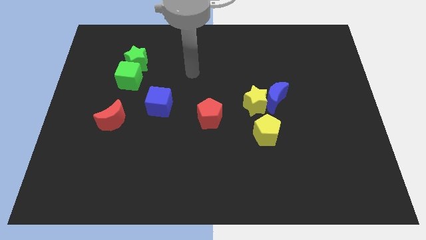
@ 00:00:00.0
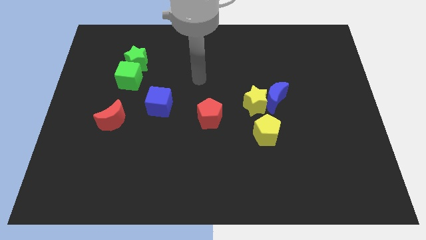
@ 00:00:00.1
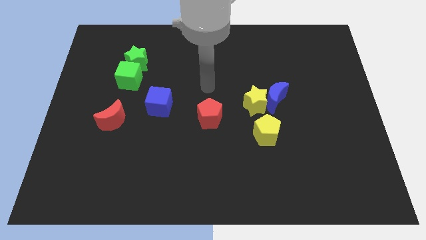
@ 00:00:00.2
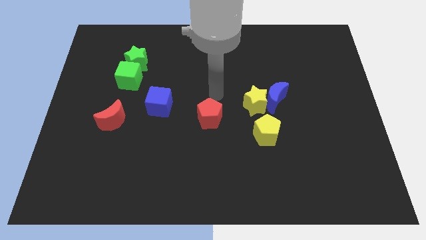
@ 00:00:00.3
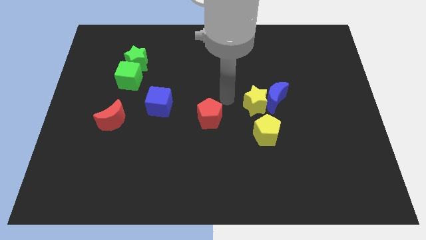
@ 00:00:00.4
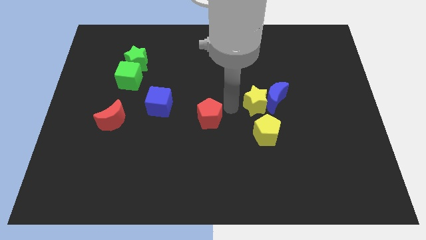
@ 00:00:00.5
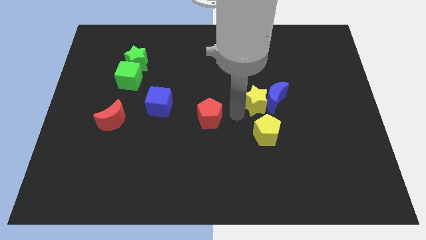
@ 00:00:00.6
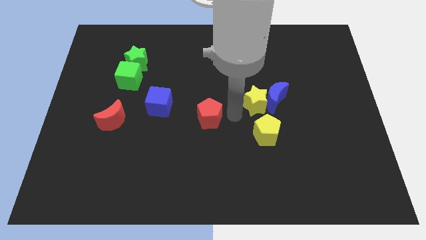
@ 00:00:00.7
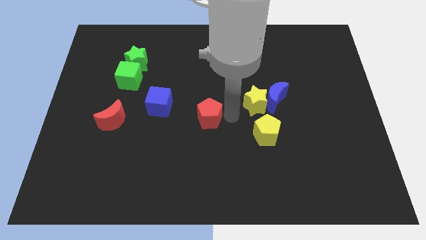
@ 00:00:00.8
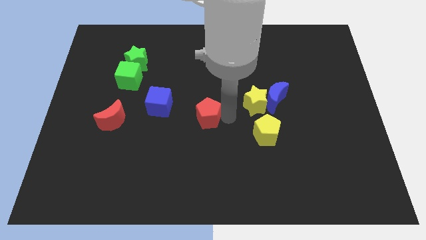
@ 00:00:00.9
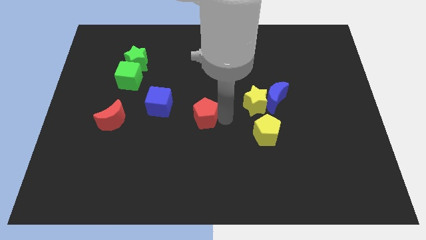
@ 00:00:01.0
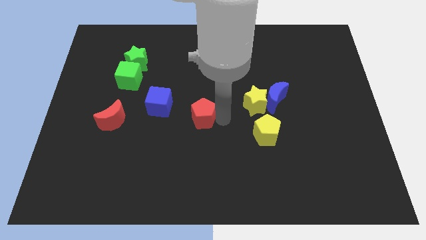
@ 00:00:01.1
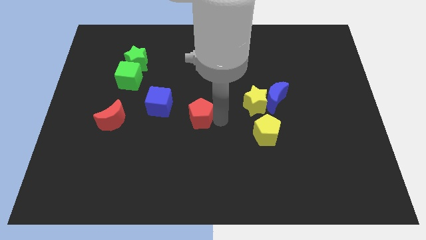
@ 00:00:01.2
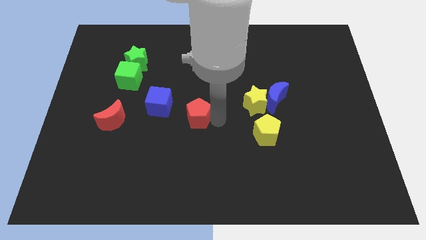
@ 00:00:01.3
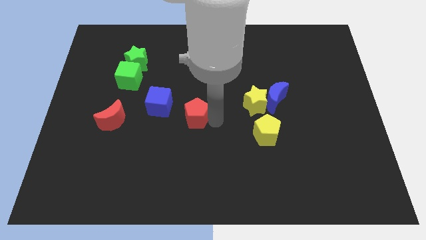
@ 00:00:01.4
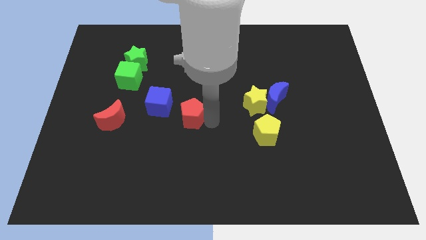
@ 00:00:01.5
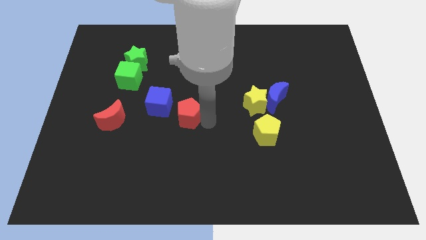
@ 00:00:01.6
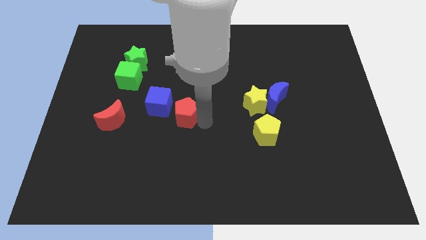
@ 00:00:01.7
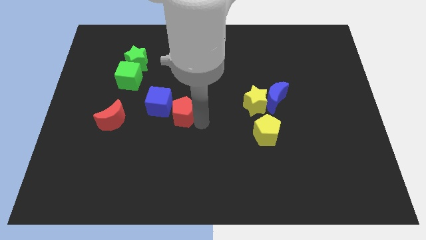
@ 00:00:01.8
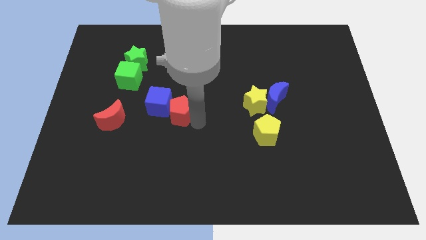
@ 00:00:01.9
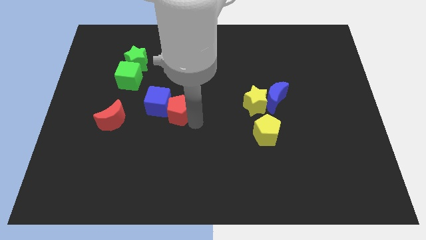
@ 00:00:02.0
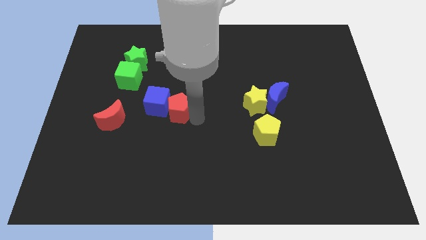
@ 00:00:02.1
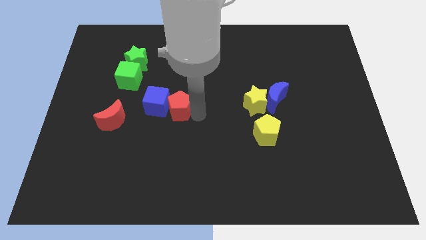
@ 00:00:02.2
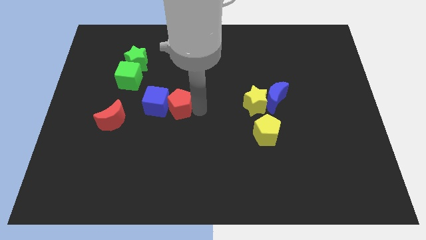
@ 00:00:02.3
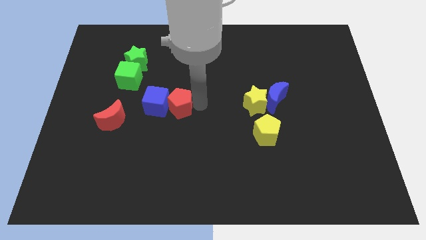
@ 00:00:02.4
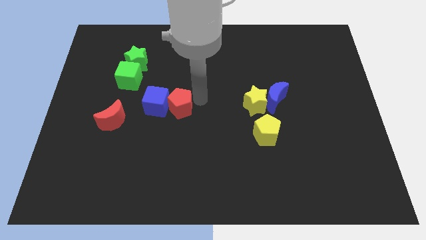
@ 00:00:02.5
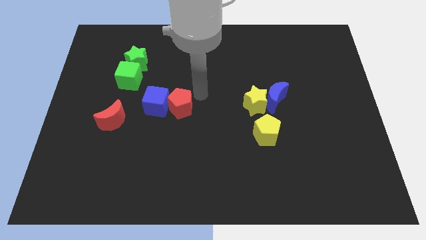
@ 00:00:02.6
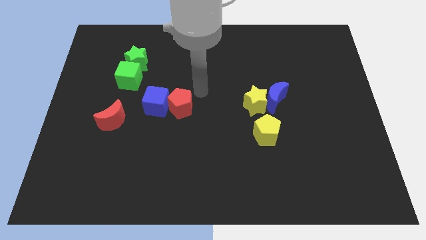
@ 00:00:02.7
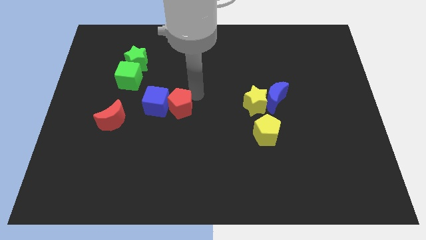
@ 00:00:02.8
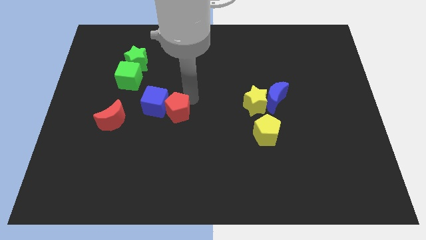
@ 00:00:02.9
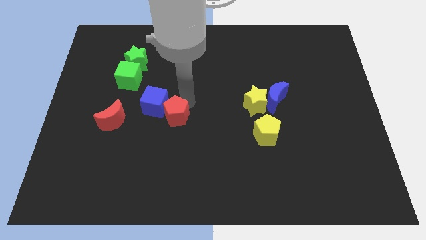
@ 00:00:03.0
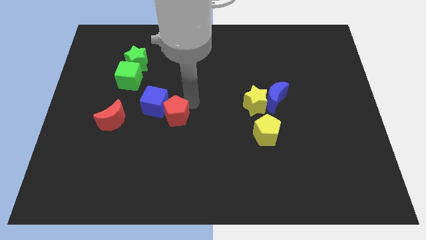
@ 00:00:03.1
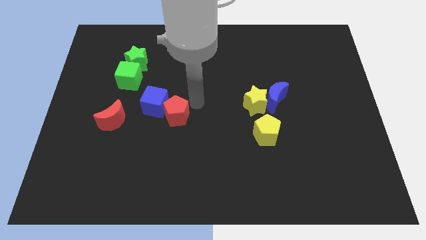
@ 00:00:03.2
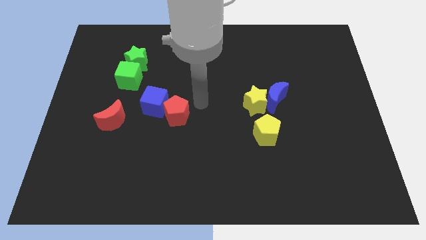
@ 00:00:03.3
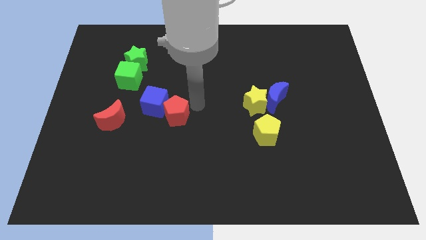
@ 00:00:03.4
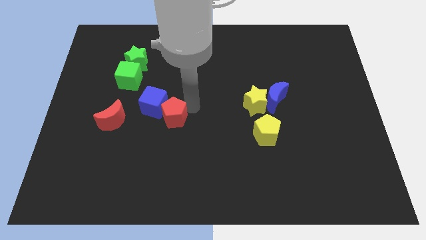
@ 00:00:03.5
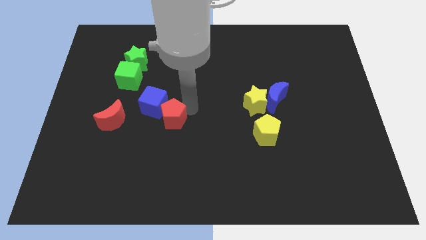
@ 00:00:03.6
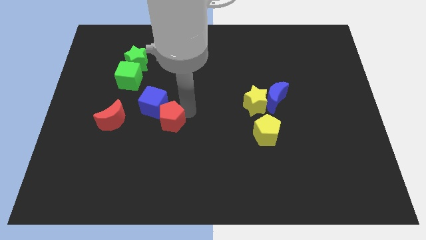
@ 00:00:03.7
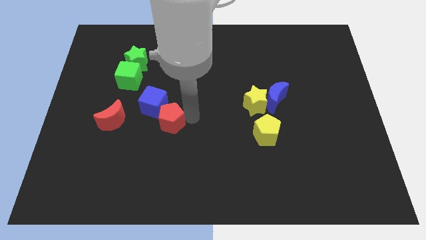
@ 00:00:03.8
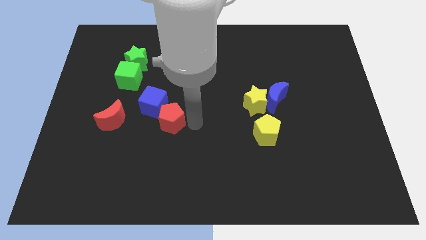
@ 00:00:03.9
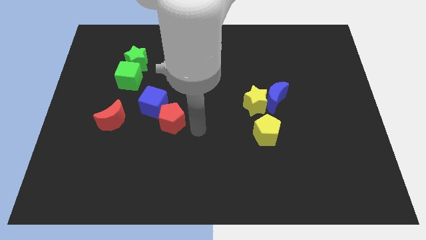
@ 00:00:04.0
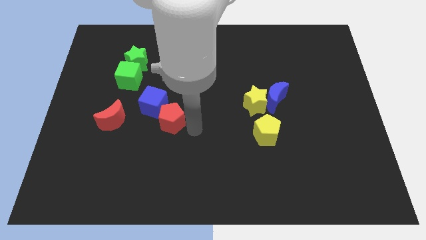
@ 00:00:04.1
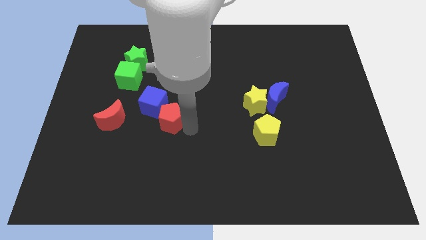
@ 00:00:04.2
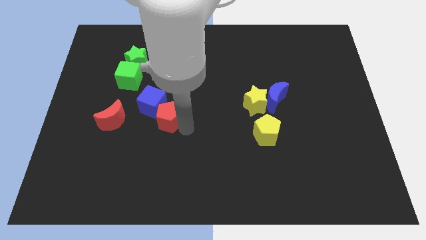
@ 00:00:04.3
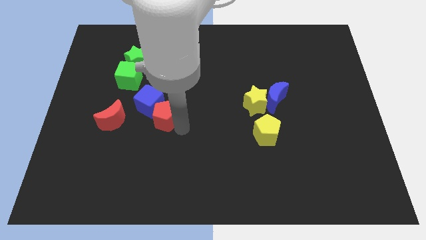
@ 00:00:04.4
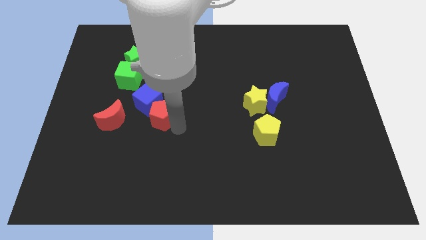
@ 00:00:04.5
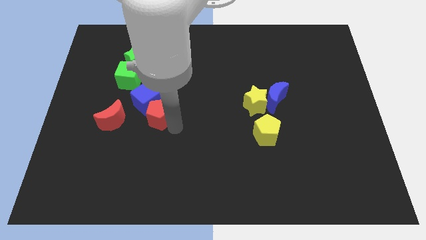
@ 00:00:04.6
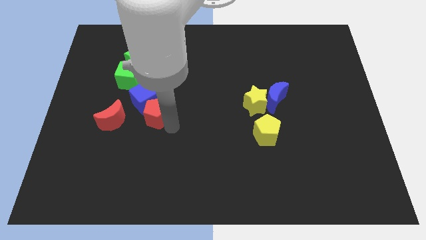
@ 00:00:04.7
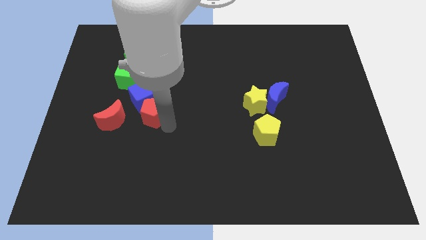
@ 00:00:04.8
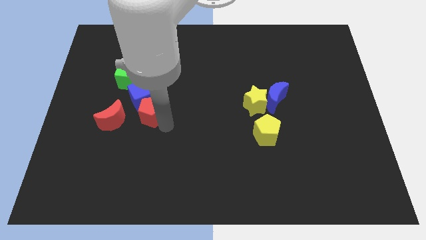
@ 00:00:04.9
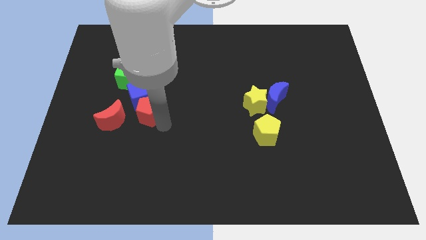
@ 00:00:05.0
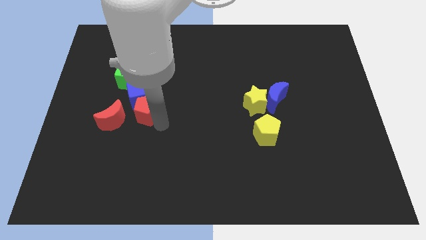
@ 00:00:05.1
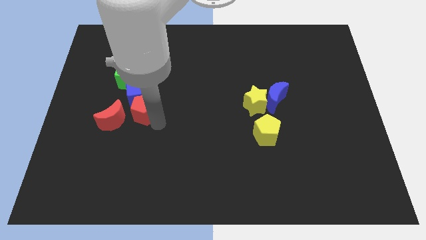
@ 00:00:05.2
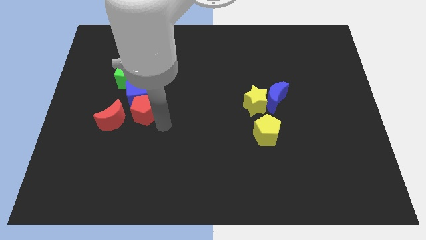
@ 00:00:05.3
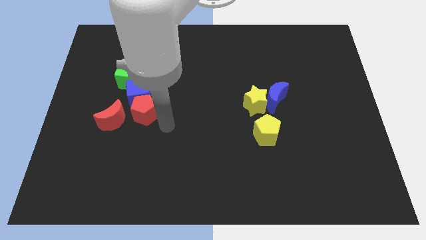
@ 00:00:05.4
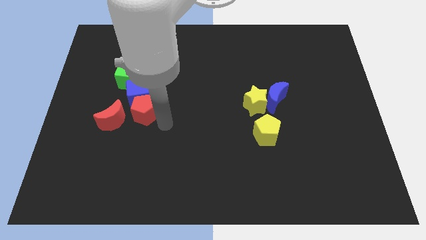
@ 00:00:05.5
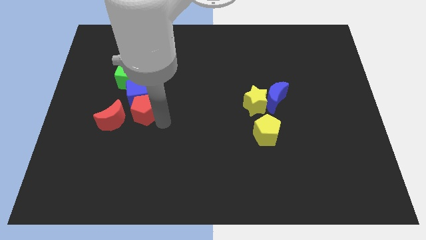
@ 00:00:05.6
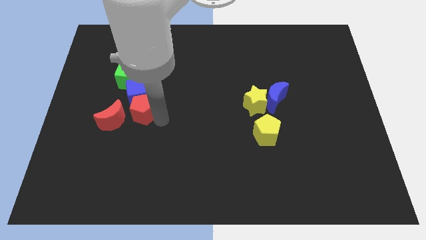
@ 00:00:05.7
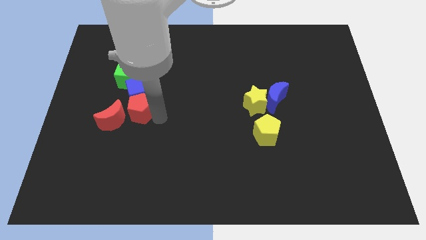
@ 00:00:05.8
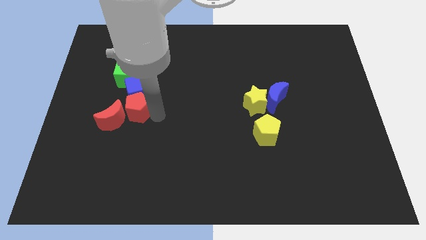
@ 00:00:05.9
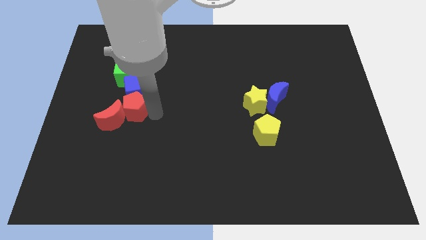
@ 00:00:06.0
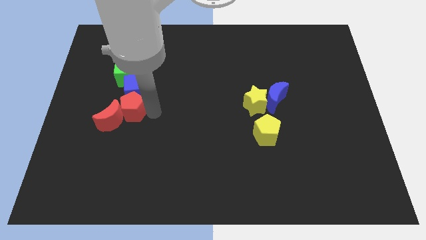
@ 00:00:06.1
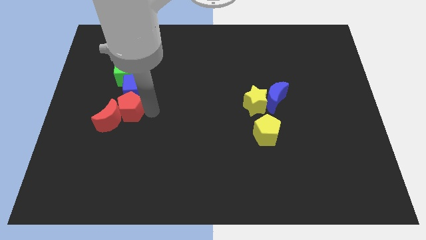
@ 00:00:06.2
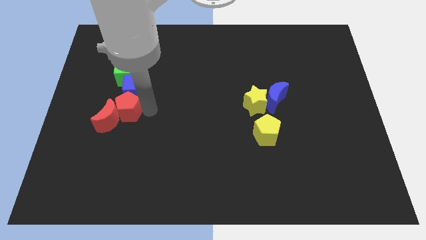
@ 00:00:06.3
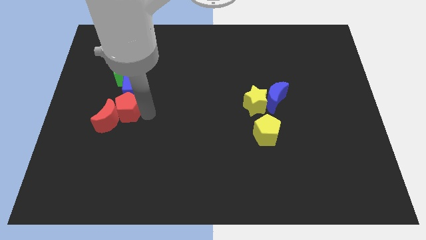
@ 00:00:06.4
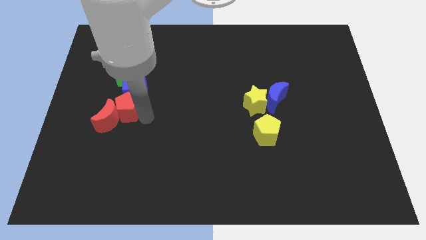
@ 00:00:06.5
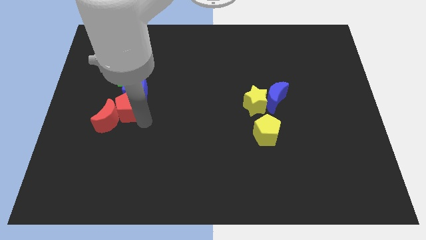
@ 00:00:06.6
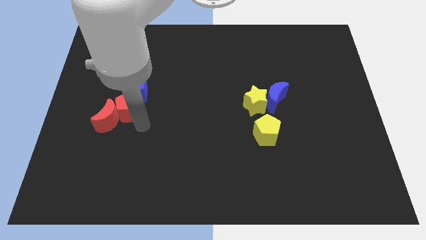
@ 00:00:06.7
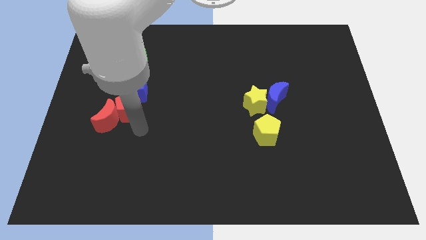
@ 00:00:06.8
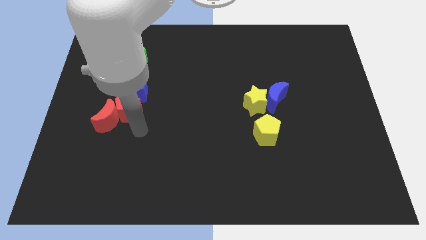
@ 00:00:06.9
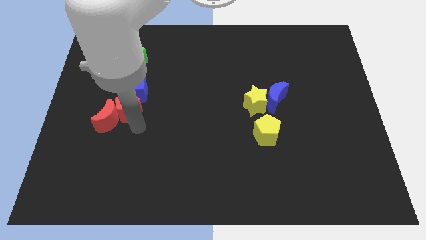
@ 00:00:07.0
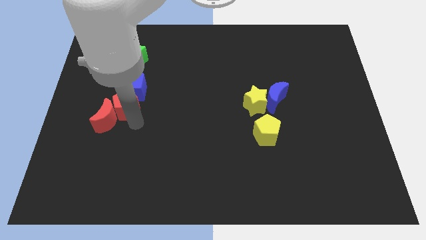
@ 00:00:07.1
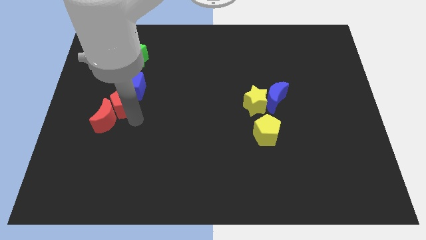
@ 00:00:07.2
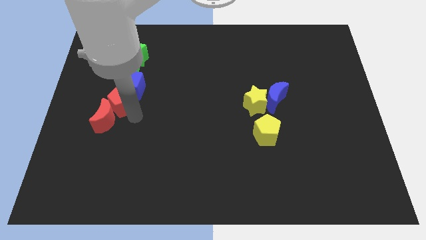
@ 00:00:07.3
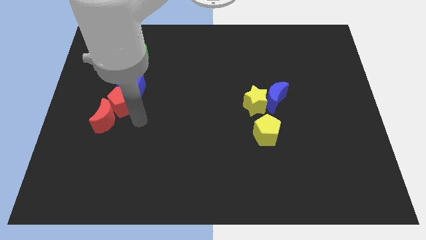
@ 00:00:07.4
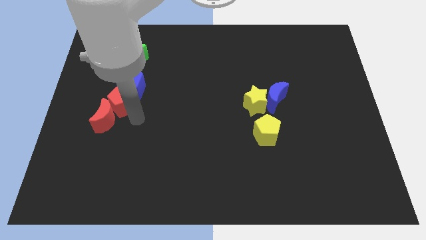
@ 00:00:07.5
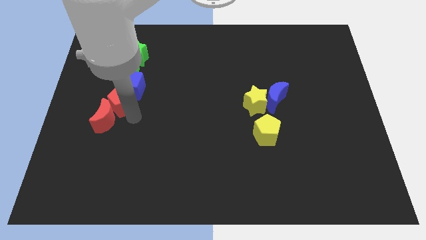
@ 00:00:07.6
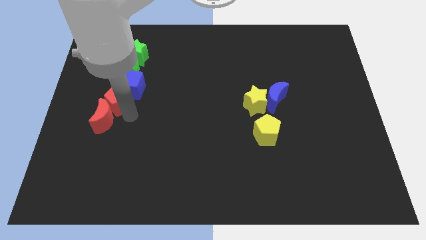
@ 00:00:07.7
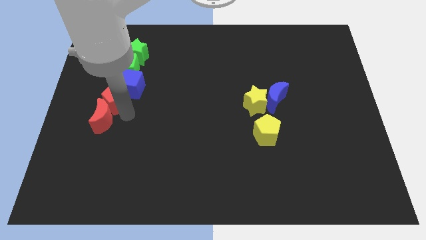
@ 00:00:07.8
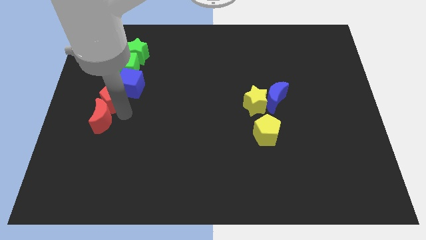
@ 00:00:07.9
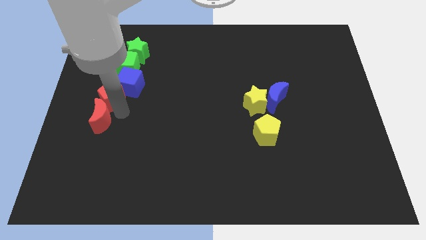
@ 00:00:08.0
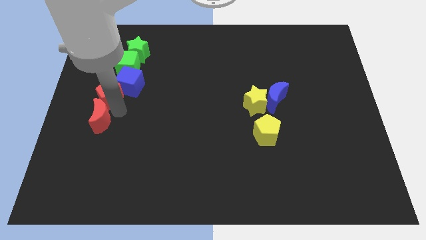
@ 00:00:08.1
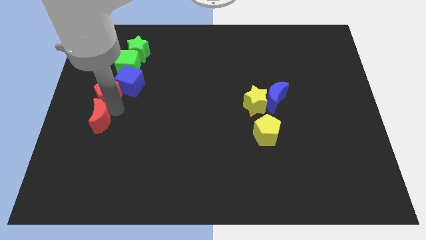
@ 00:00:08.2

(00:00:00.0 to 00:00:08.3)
put the red pentagon to the bottom left side of the green cube
